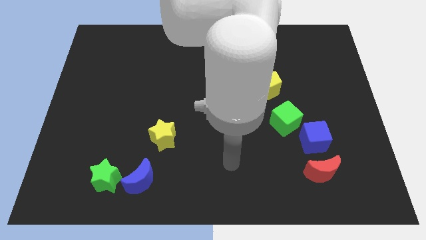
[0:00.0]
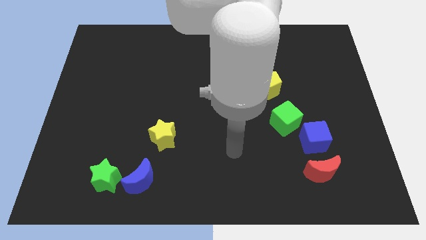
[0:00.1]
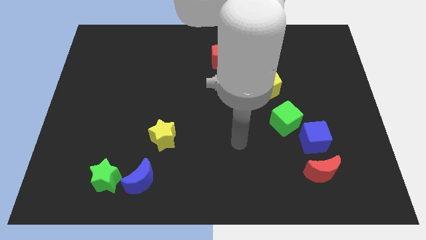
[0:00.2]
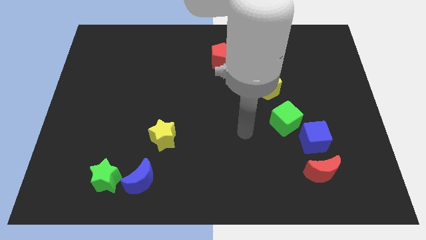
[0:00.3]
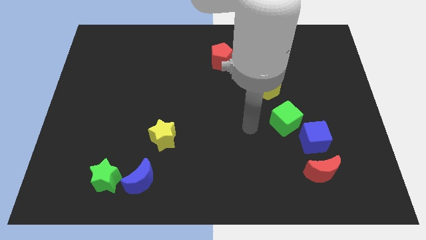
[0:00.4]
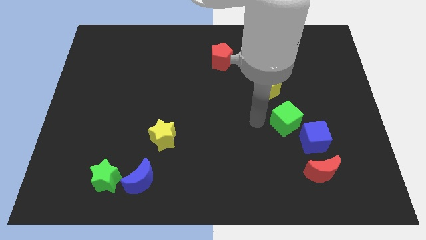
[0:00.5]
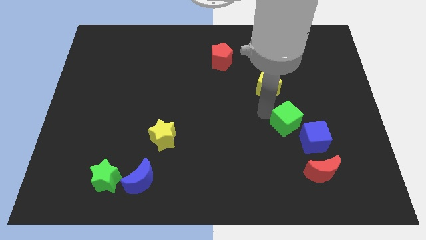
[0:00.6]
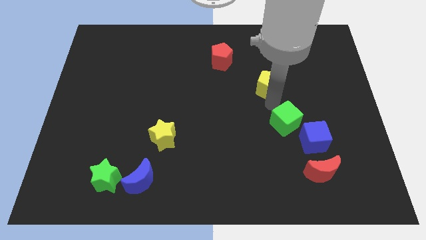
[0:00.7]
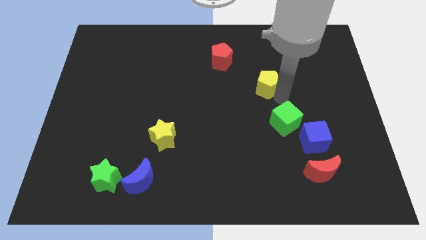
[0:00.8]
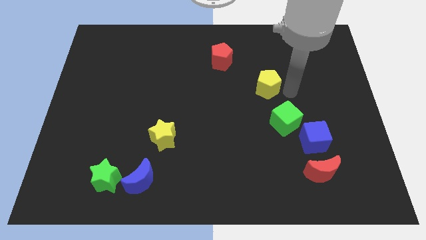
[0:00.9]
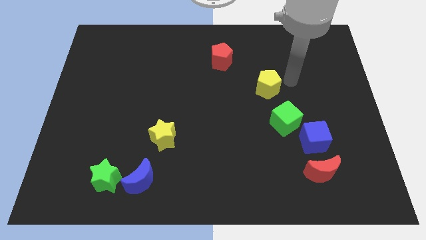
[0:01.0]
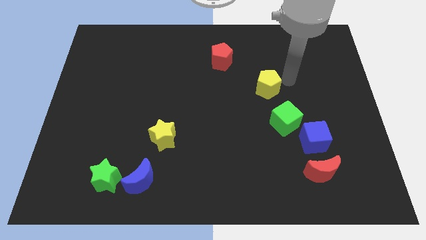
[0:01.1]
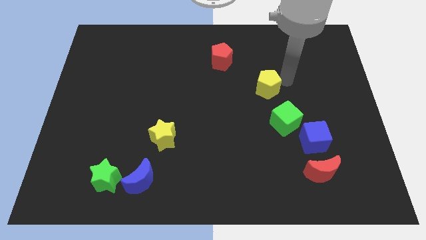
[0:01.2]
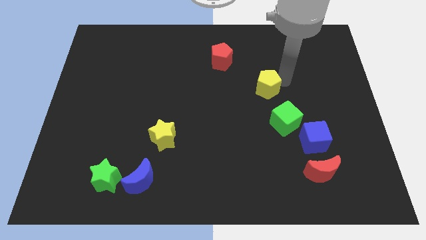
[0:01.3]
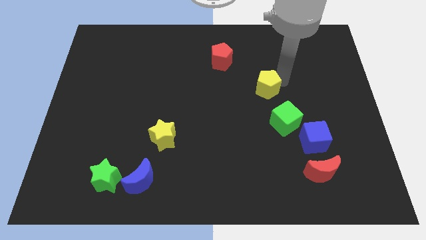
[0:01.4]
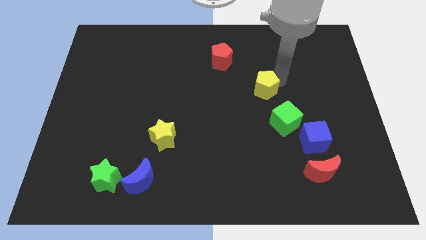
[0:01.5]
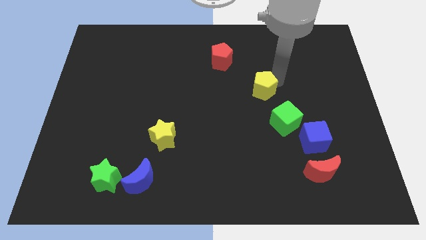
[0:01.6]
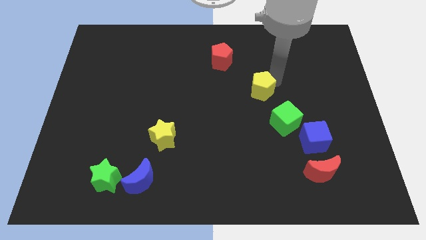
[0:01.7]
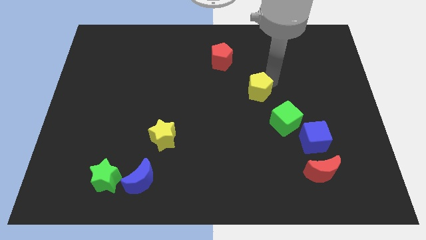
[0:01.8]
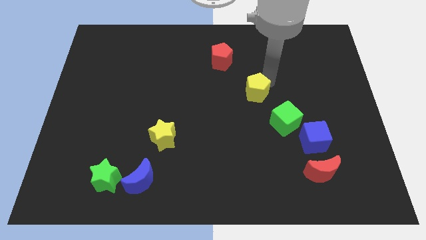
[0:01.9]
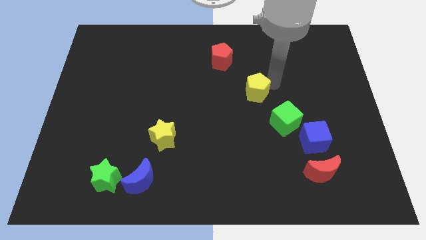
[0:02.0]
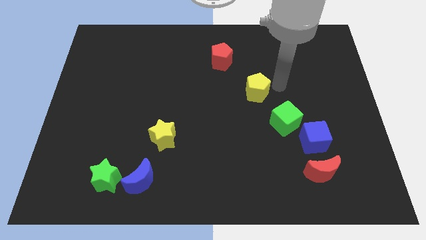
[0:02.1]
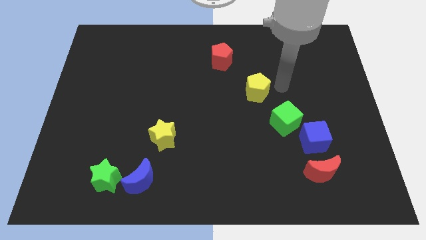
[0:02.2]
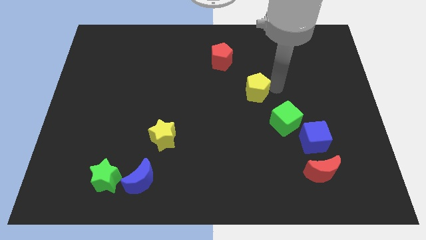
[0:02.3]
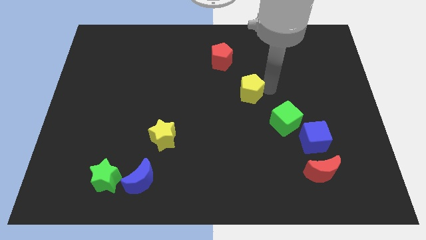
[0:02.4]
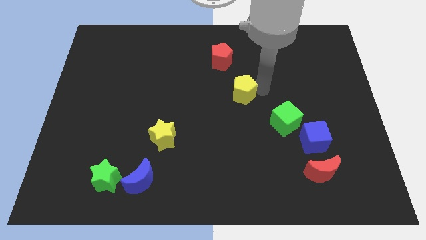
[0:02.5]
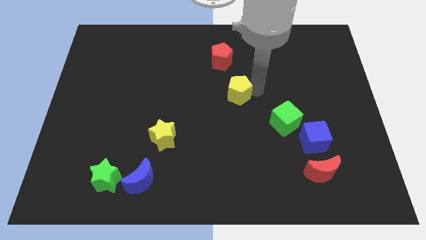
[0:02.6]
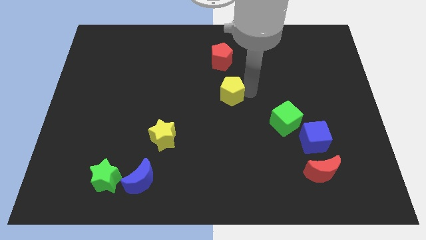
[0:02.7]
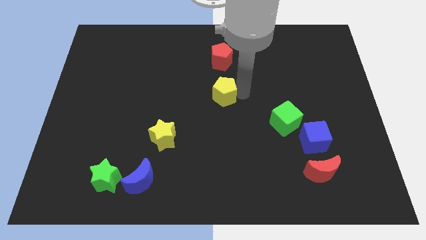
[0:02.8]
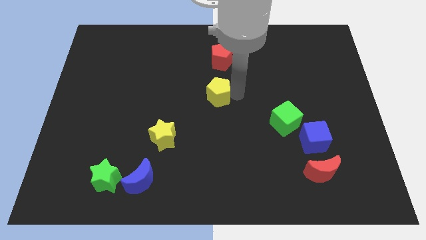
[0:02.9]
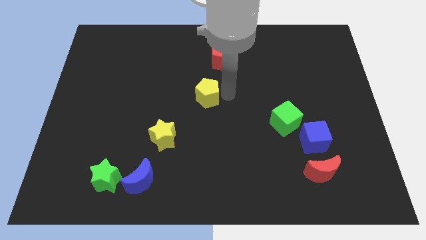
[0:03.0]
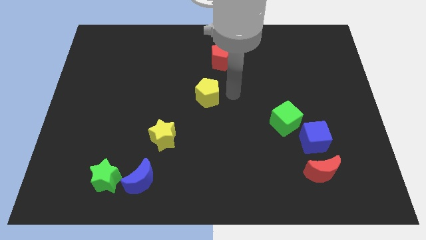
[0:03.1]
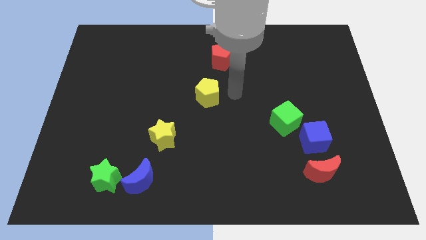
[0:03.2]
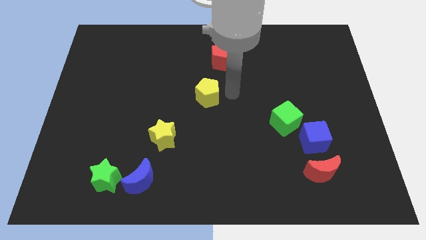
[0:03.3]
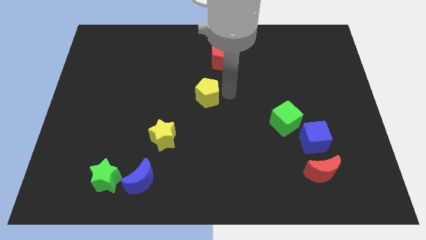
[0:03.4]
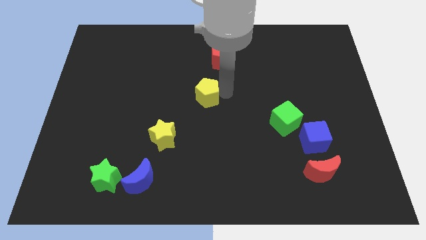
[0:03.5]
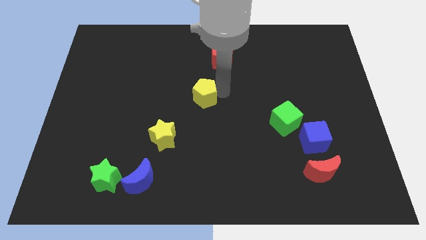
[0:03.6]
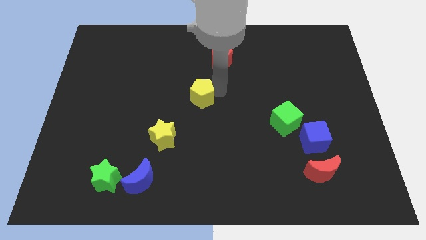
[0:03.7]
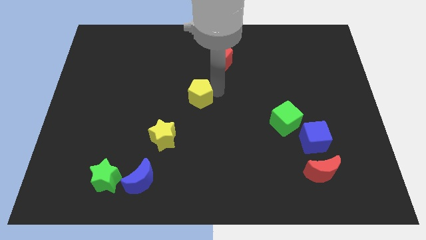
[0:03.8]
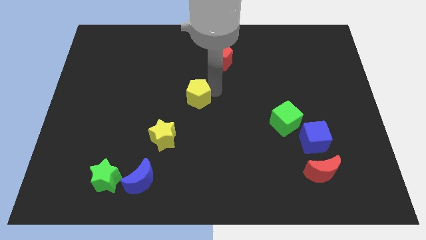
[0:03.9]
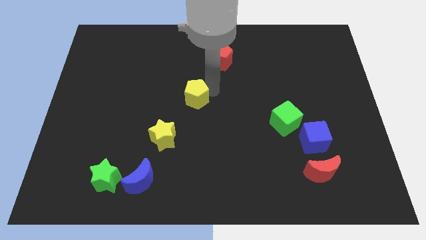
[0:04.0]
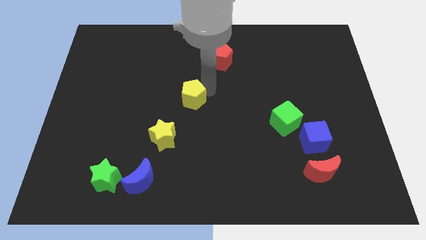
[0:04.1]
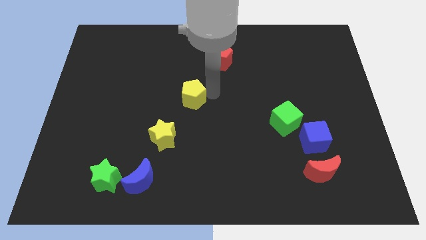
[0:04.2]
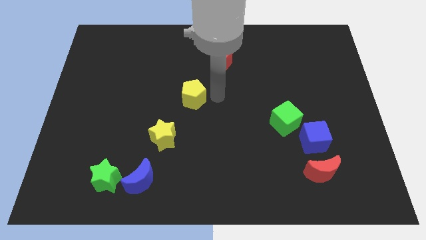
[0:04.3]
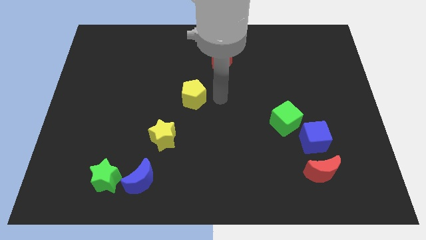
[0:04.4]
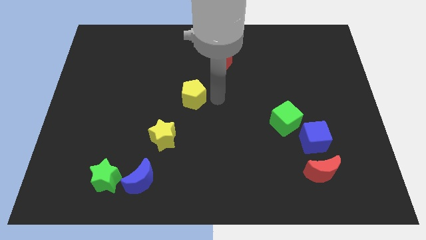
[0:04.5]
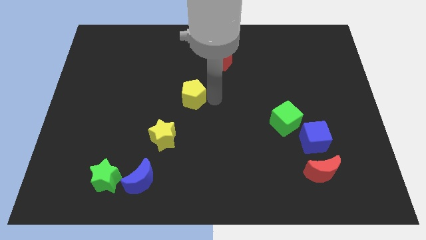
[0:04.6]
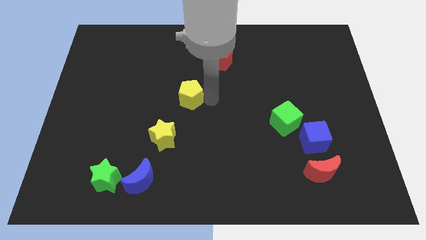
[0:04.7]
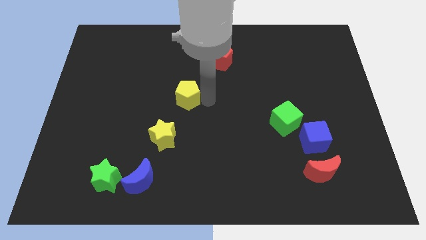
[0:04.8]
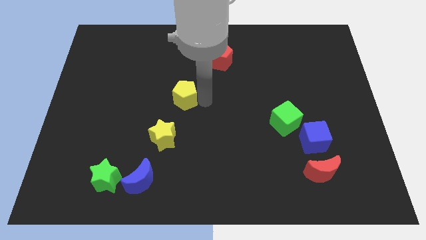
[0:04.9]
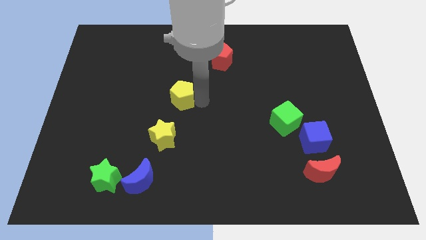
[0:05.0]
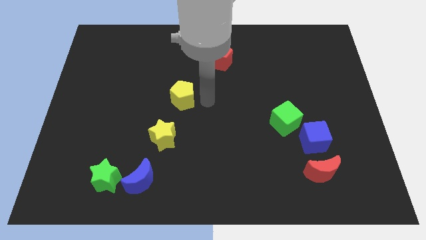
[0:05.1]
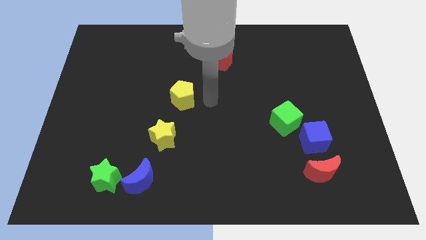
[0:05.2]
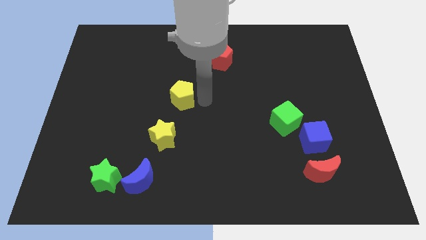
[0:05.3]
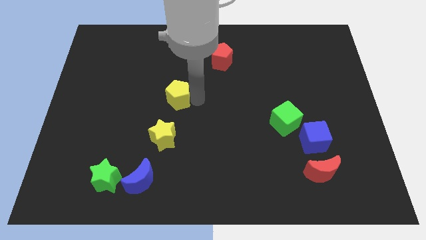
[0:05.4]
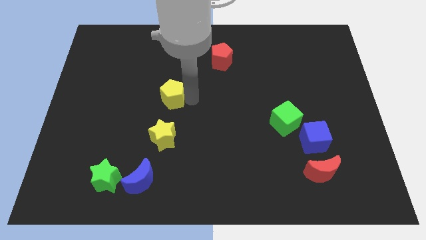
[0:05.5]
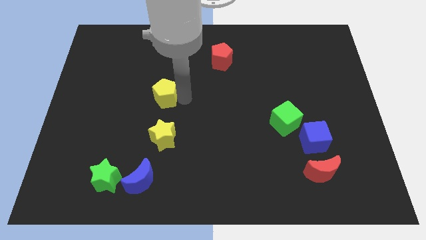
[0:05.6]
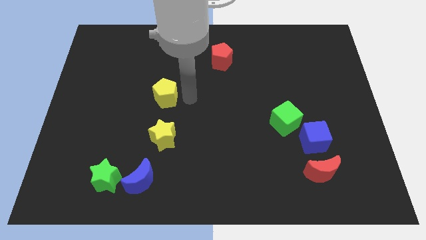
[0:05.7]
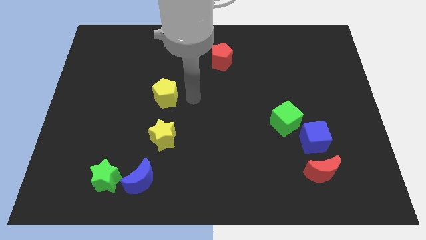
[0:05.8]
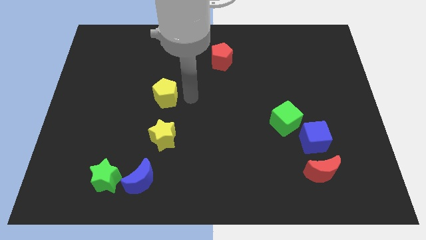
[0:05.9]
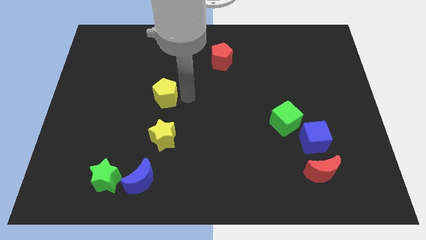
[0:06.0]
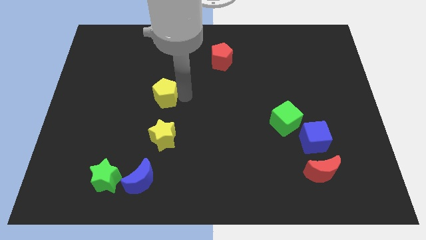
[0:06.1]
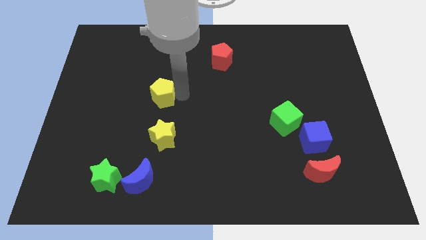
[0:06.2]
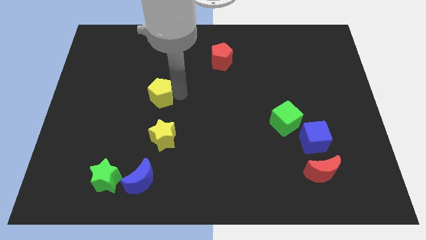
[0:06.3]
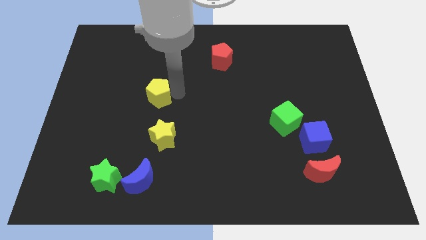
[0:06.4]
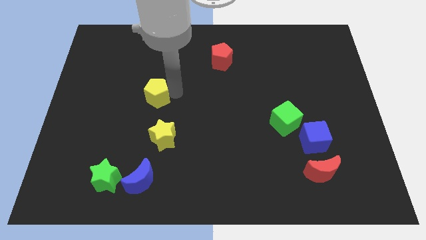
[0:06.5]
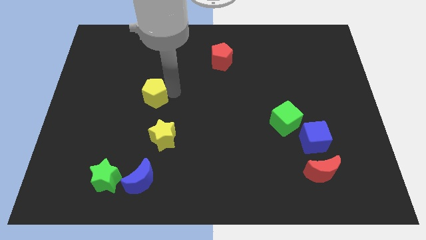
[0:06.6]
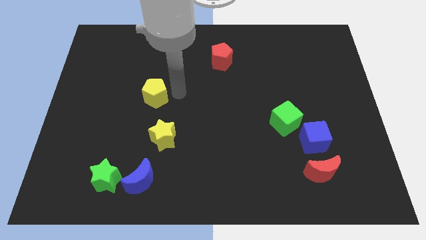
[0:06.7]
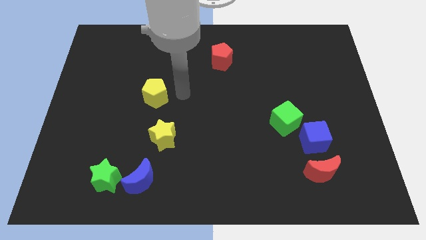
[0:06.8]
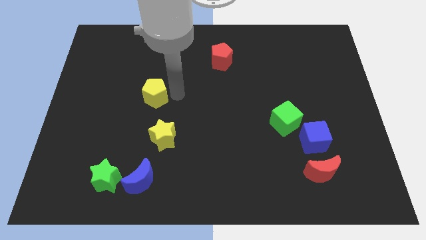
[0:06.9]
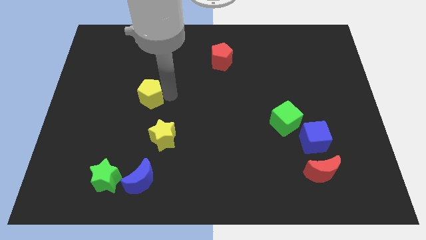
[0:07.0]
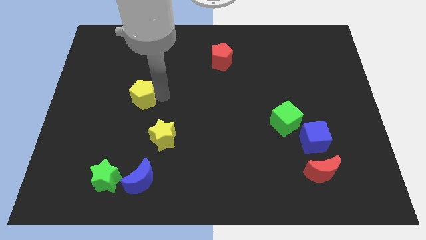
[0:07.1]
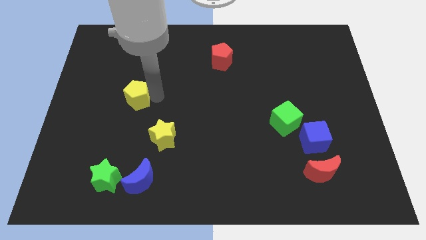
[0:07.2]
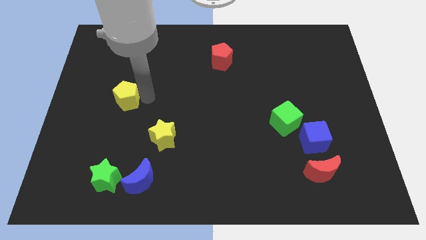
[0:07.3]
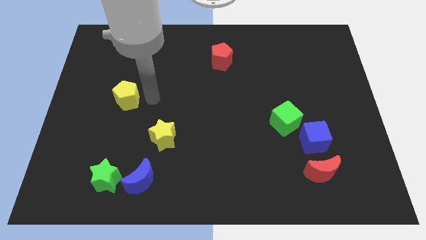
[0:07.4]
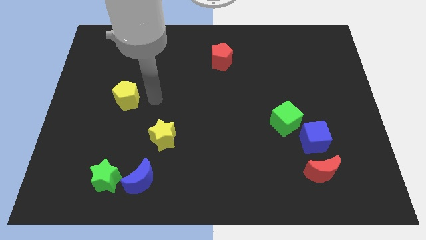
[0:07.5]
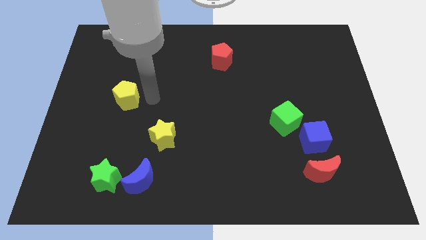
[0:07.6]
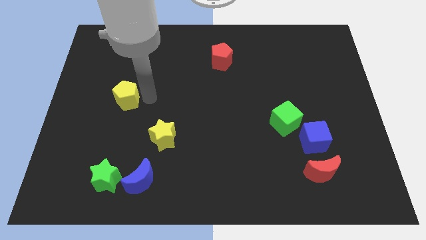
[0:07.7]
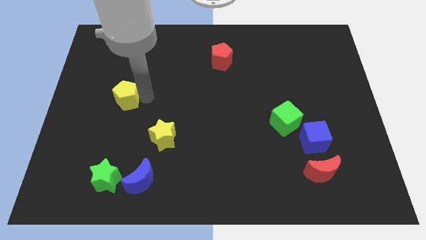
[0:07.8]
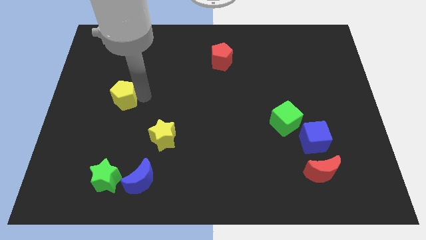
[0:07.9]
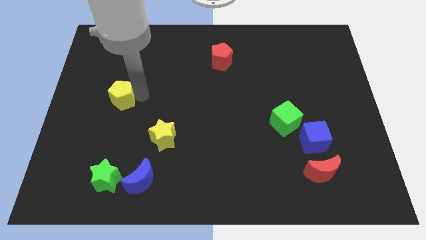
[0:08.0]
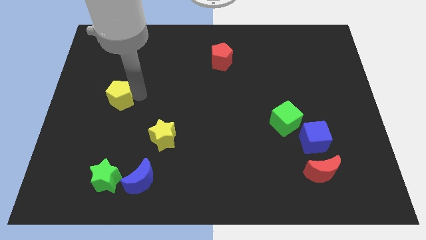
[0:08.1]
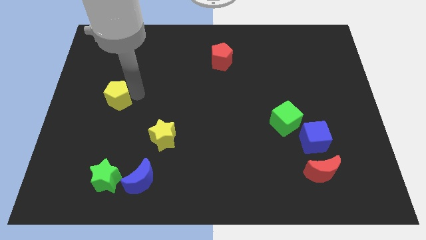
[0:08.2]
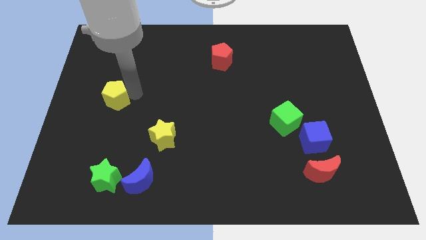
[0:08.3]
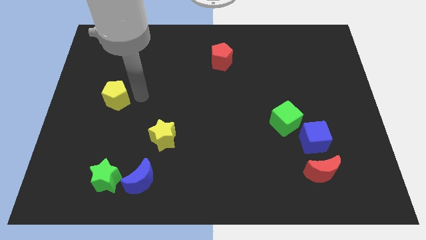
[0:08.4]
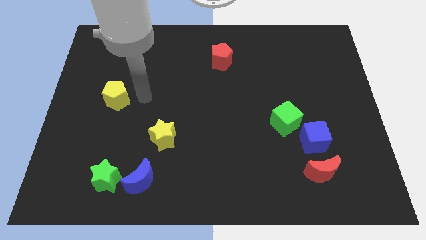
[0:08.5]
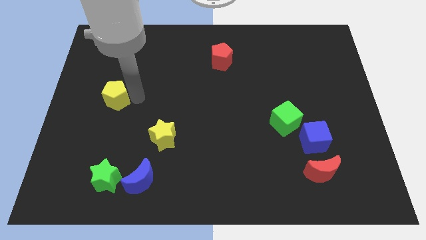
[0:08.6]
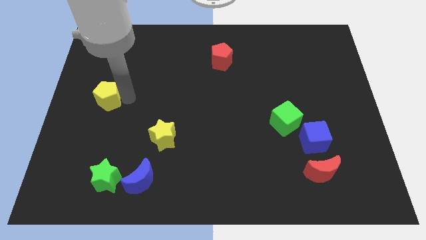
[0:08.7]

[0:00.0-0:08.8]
move the yellow pentagon to the center left
